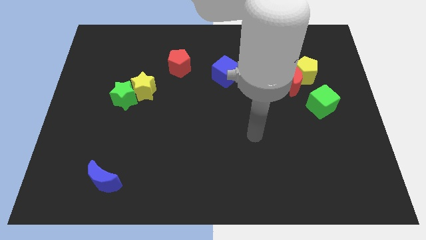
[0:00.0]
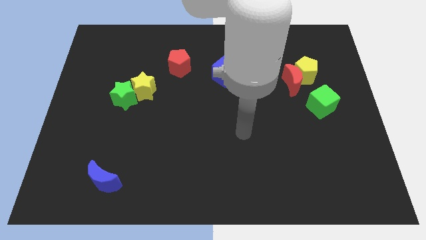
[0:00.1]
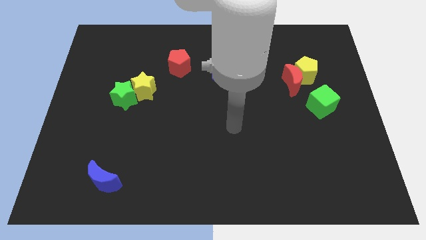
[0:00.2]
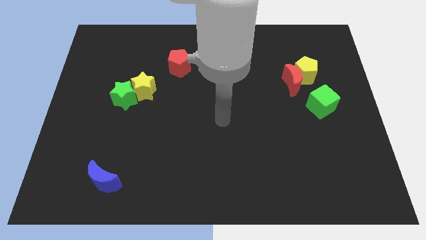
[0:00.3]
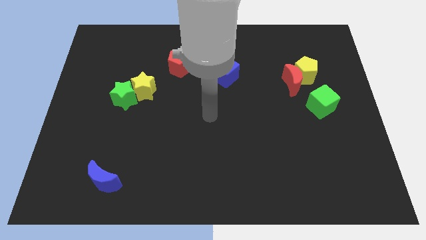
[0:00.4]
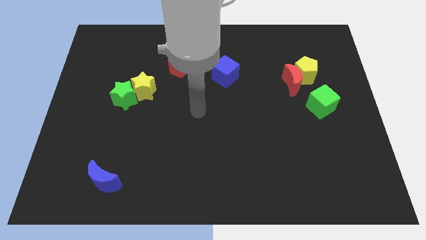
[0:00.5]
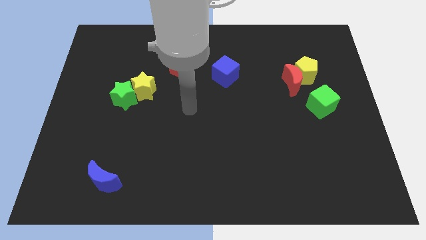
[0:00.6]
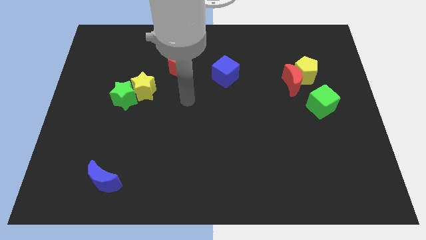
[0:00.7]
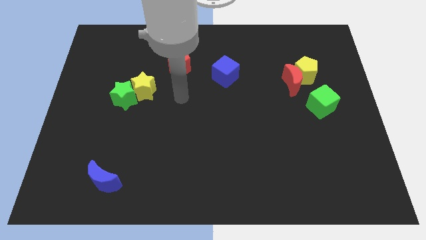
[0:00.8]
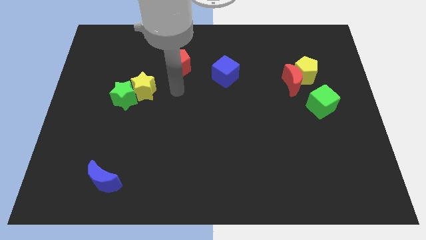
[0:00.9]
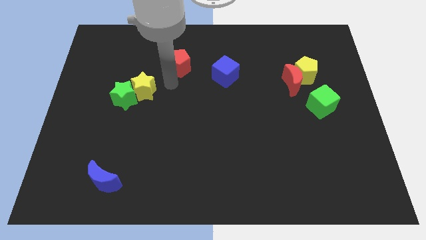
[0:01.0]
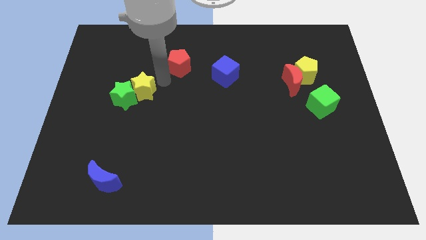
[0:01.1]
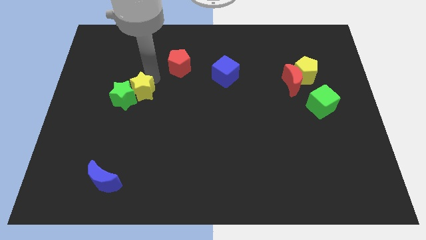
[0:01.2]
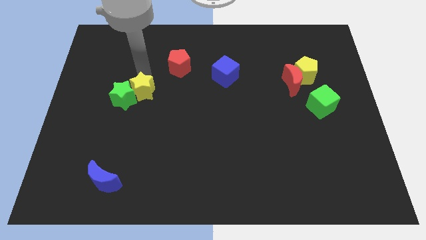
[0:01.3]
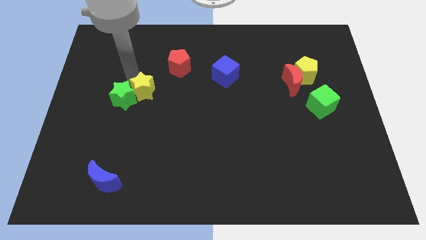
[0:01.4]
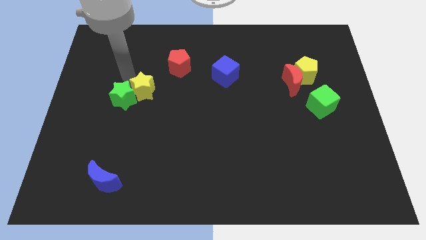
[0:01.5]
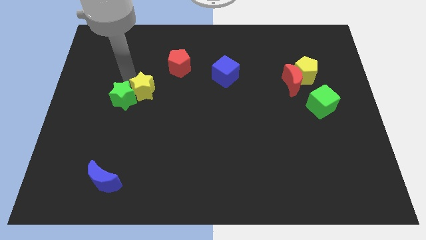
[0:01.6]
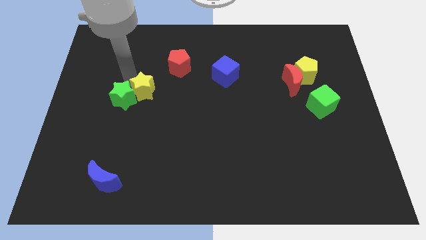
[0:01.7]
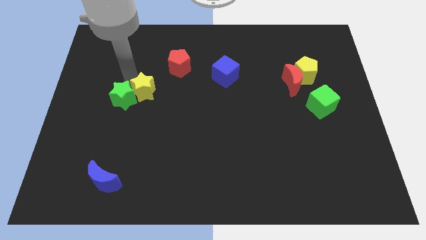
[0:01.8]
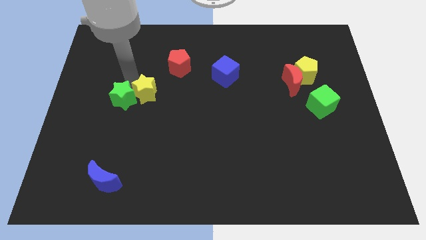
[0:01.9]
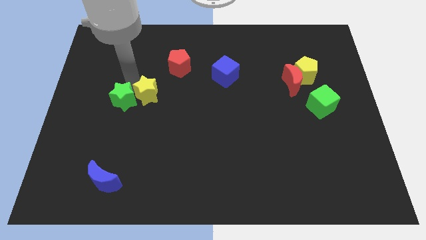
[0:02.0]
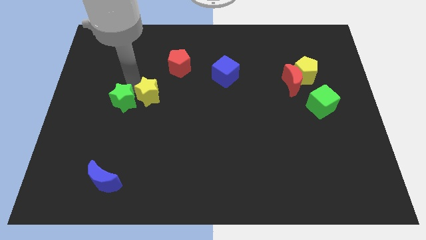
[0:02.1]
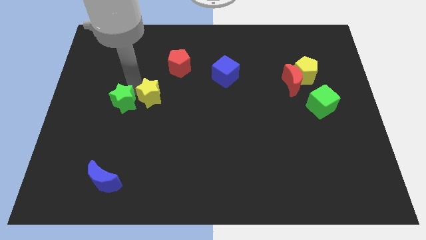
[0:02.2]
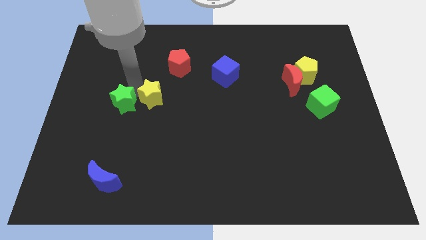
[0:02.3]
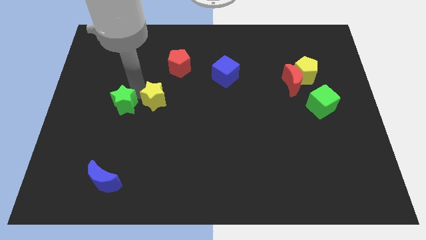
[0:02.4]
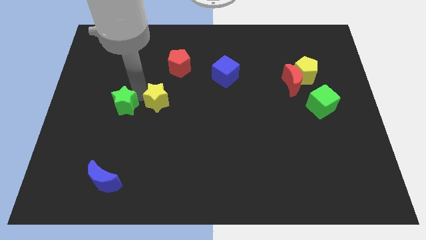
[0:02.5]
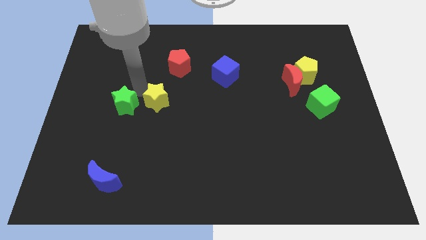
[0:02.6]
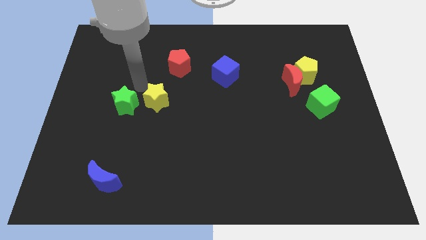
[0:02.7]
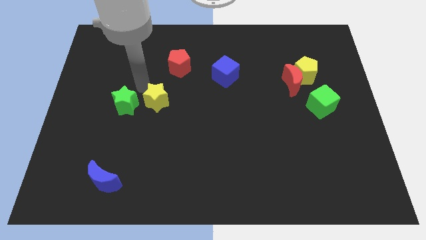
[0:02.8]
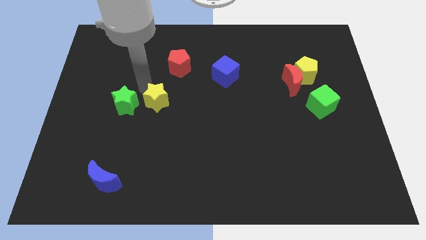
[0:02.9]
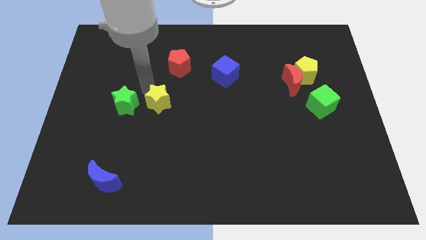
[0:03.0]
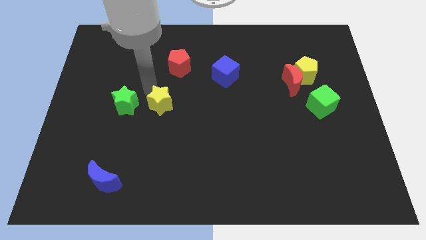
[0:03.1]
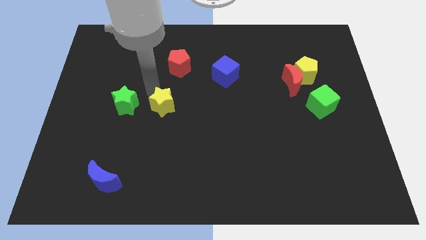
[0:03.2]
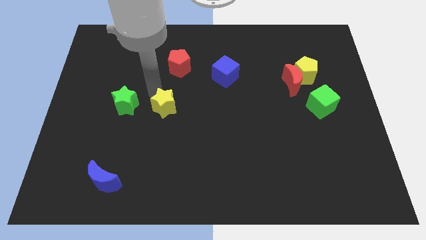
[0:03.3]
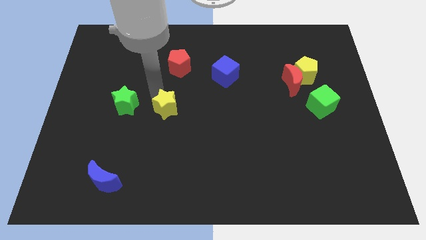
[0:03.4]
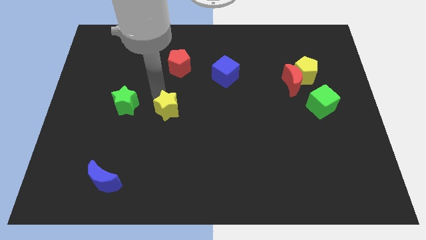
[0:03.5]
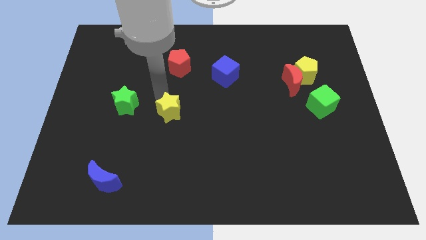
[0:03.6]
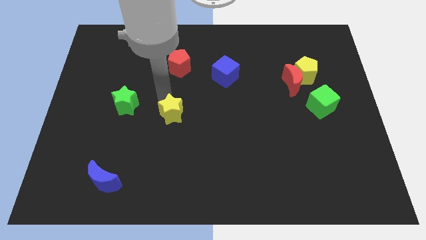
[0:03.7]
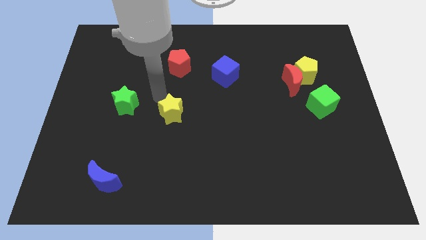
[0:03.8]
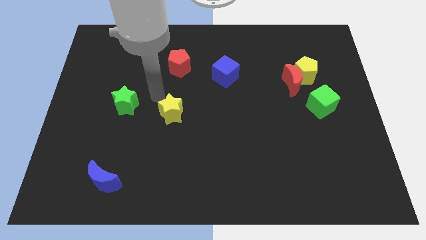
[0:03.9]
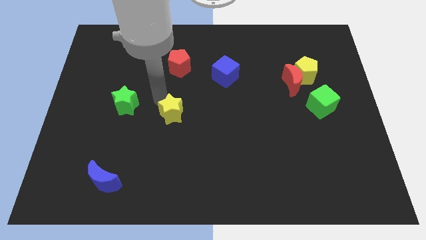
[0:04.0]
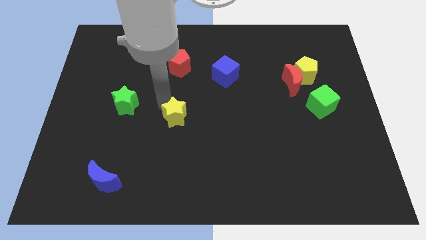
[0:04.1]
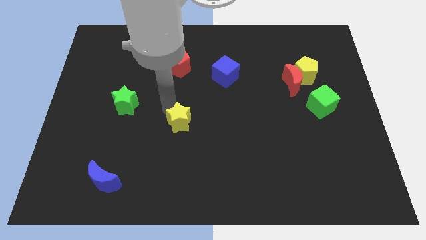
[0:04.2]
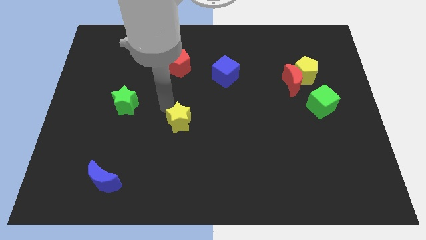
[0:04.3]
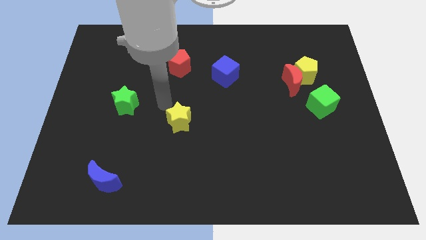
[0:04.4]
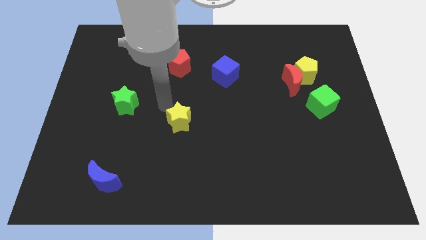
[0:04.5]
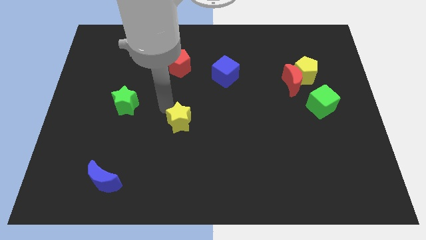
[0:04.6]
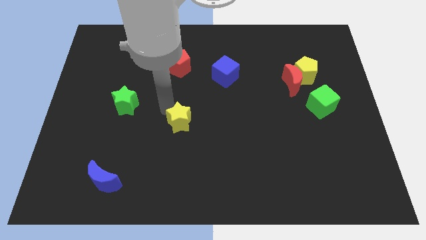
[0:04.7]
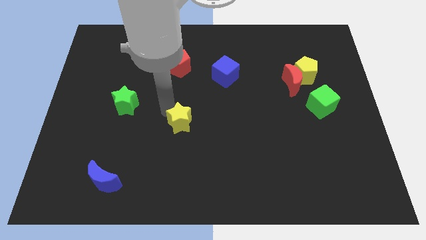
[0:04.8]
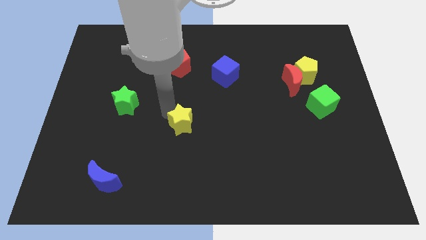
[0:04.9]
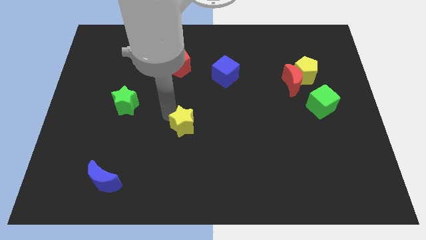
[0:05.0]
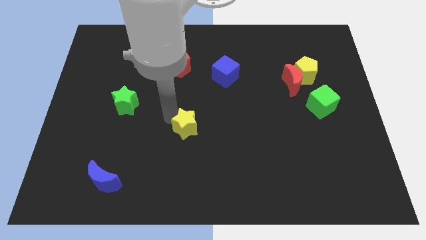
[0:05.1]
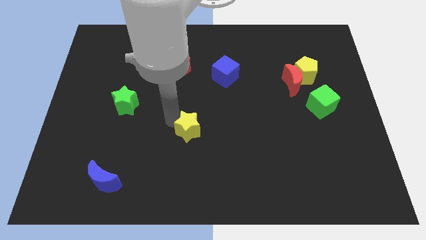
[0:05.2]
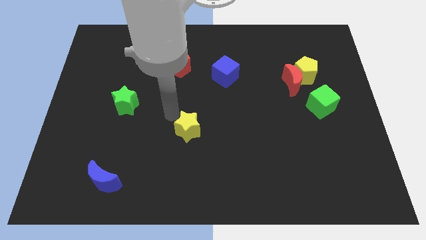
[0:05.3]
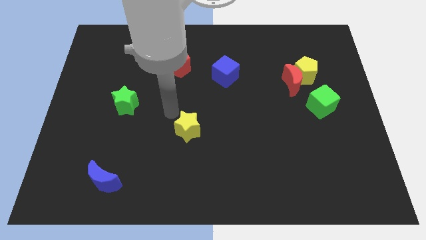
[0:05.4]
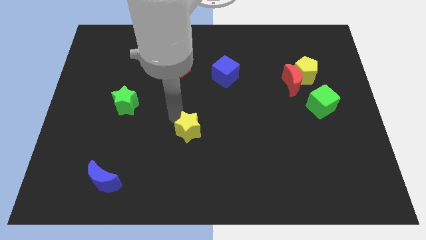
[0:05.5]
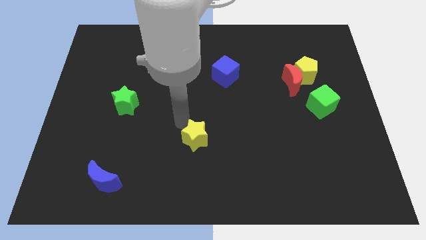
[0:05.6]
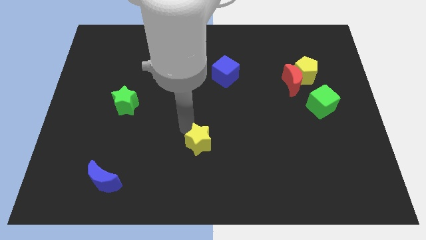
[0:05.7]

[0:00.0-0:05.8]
slide the yellow star diagonally downwards and to the right

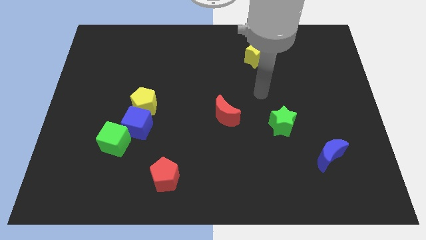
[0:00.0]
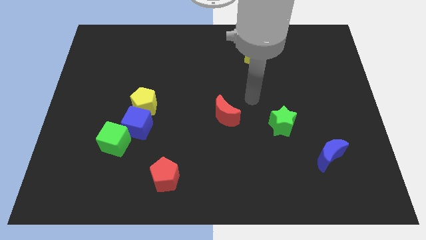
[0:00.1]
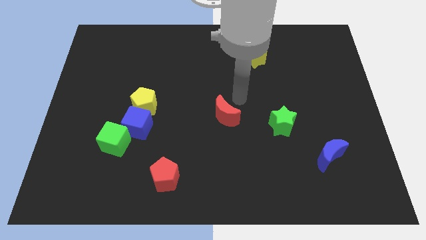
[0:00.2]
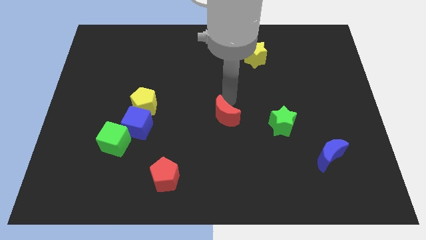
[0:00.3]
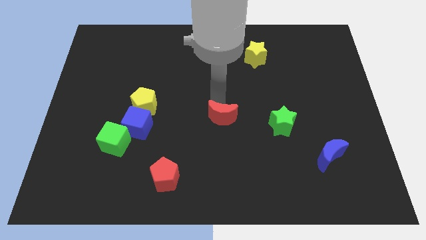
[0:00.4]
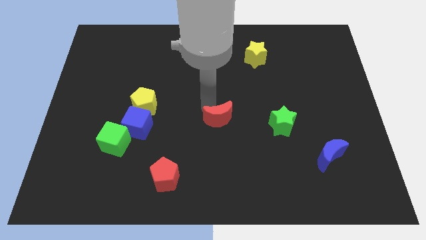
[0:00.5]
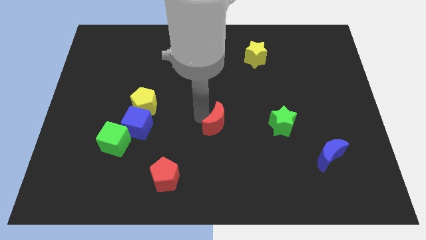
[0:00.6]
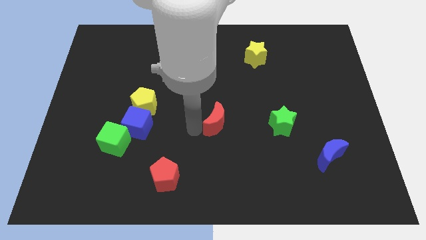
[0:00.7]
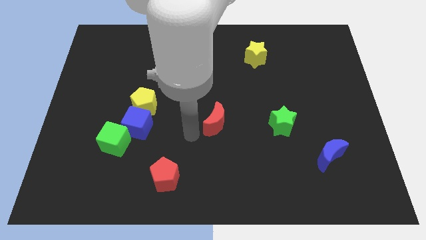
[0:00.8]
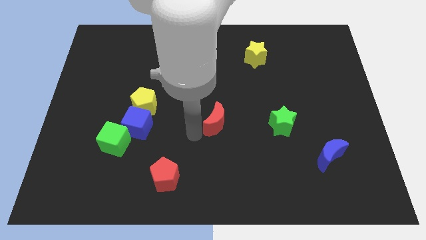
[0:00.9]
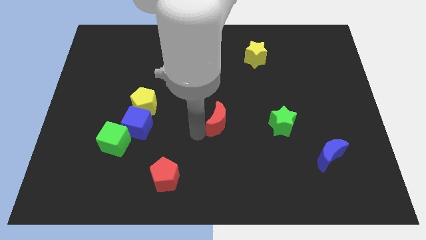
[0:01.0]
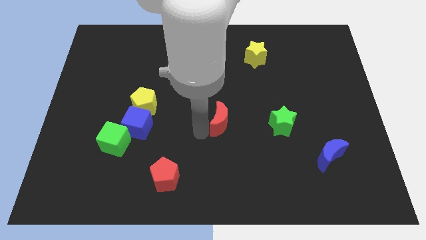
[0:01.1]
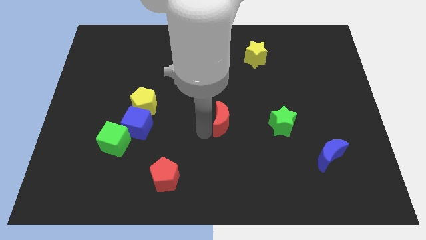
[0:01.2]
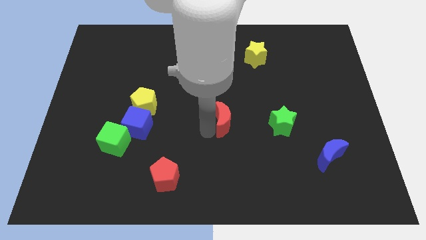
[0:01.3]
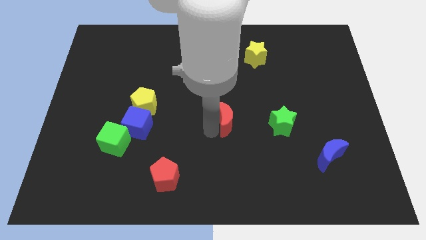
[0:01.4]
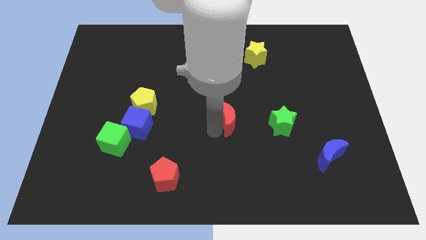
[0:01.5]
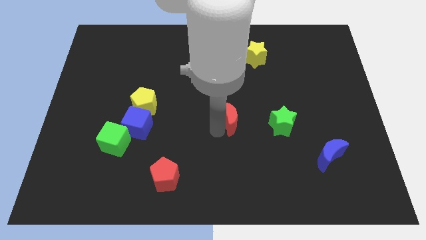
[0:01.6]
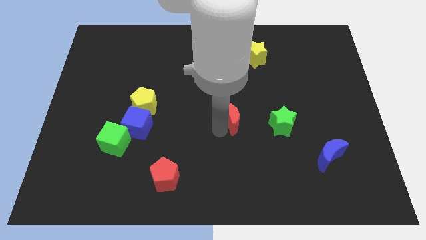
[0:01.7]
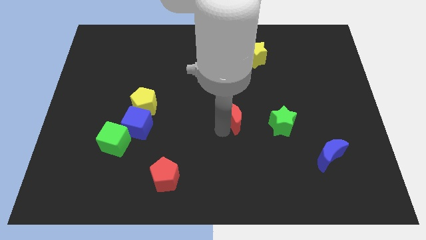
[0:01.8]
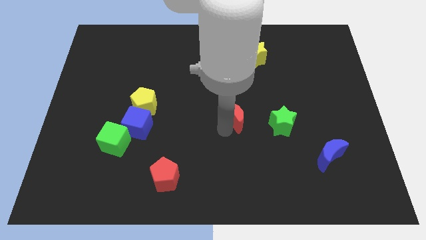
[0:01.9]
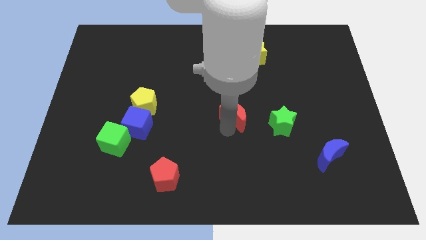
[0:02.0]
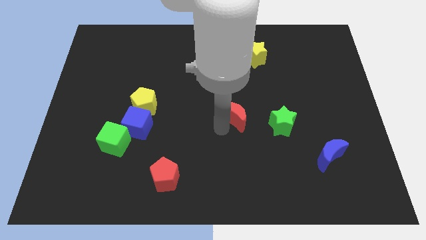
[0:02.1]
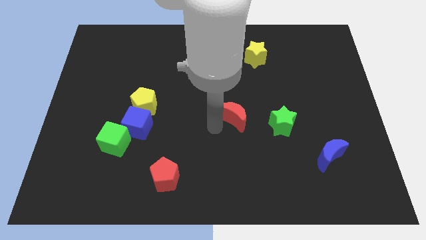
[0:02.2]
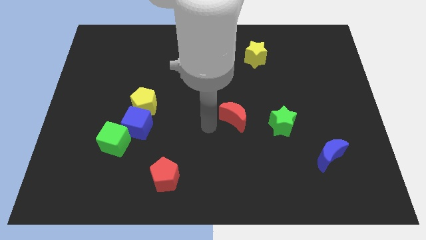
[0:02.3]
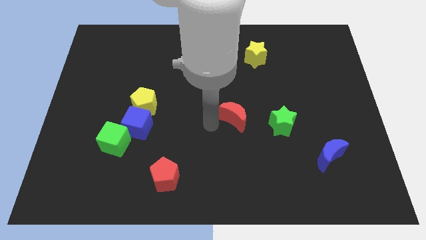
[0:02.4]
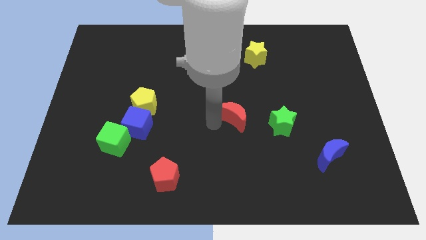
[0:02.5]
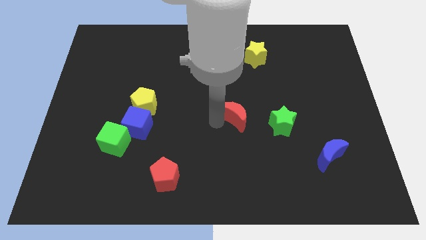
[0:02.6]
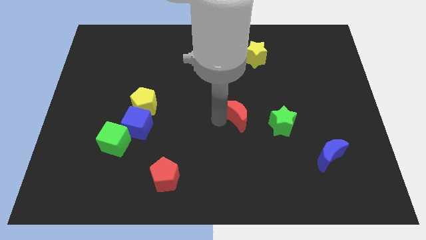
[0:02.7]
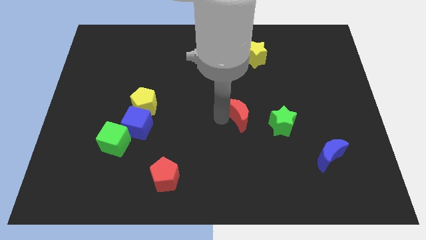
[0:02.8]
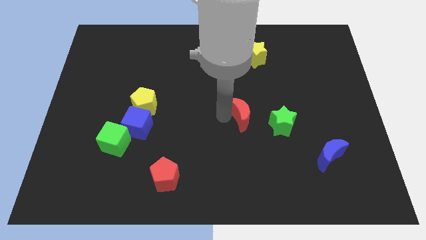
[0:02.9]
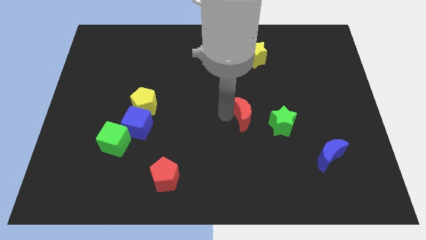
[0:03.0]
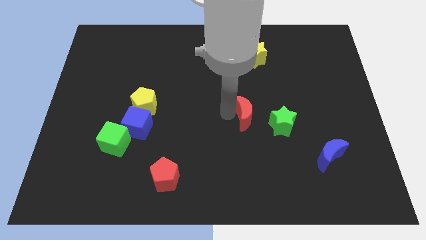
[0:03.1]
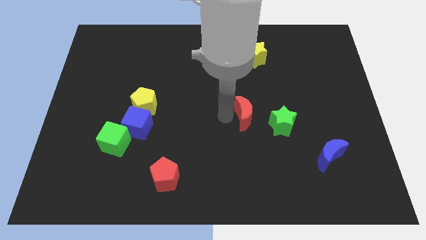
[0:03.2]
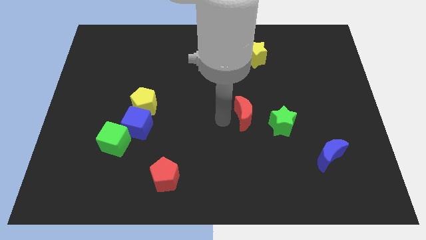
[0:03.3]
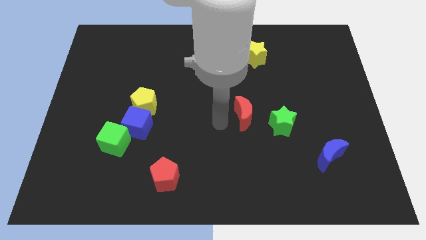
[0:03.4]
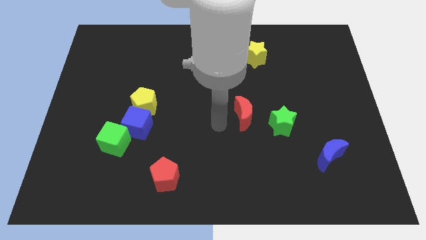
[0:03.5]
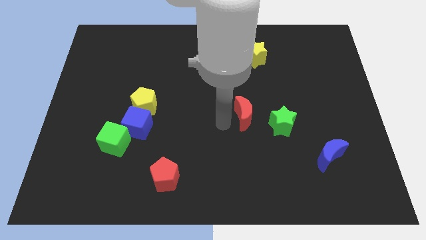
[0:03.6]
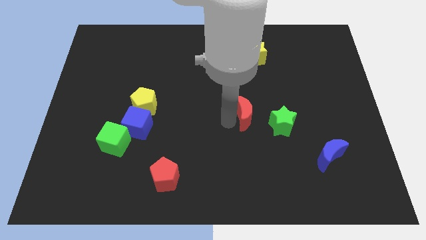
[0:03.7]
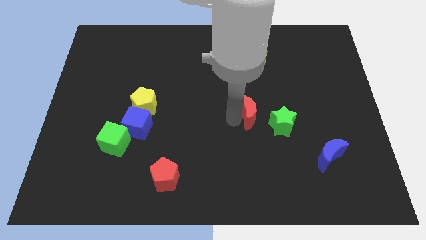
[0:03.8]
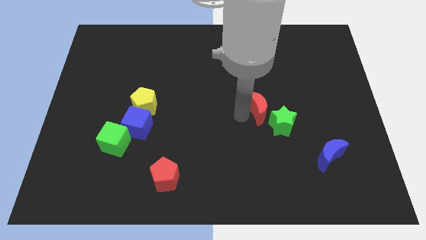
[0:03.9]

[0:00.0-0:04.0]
slide the red moon a little bit right
